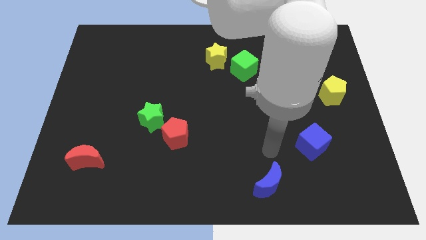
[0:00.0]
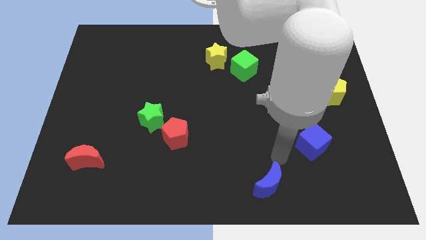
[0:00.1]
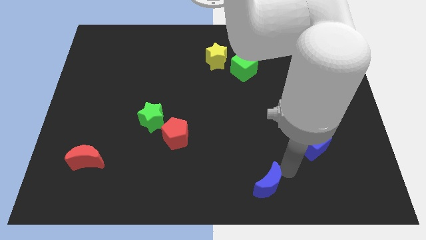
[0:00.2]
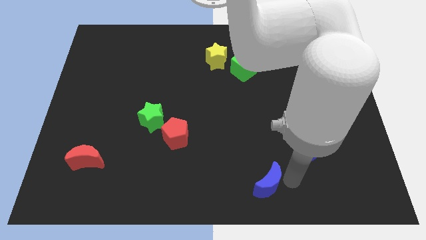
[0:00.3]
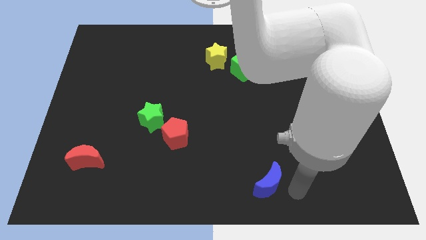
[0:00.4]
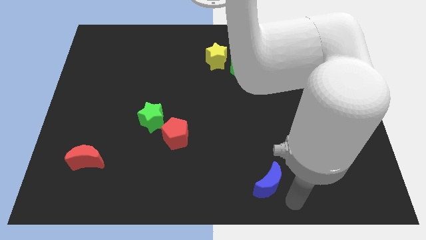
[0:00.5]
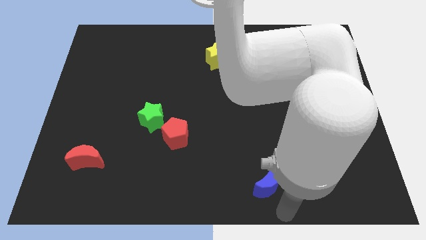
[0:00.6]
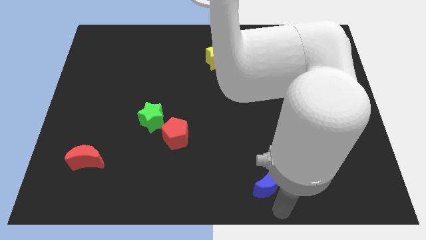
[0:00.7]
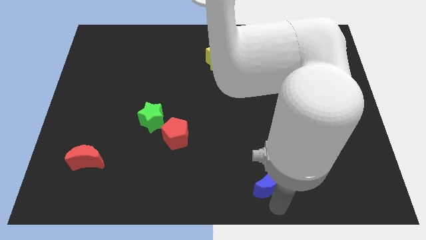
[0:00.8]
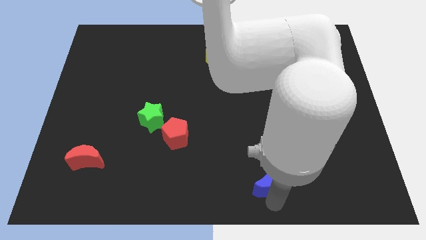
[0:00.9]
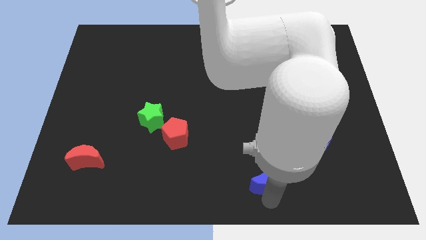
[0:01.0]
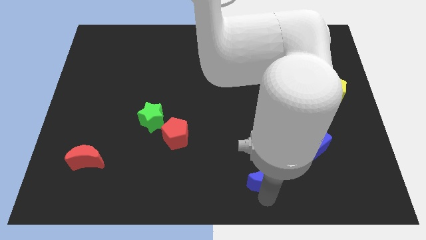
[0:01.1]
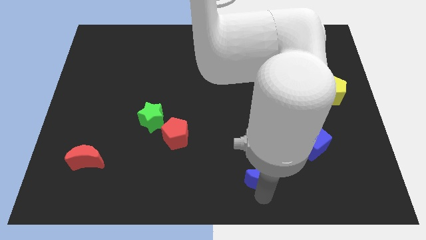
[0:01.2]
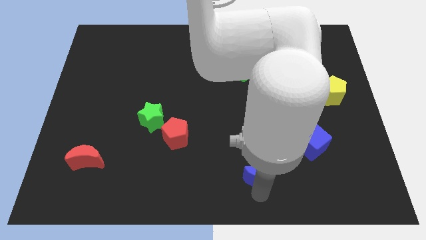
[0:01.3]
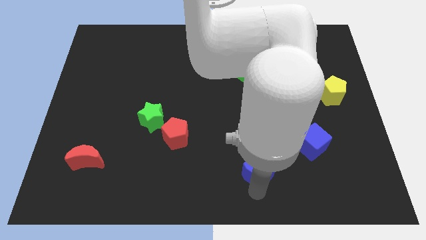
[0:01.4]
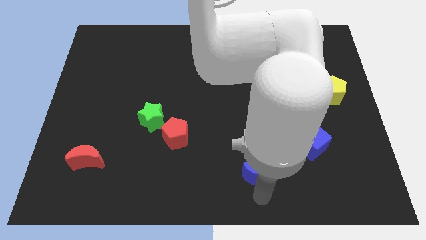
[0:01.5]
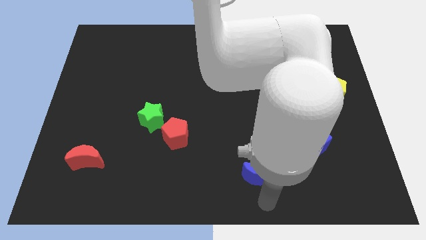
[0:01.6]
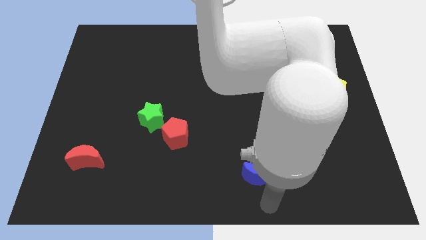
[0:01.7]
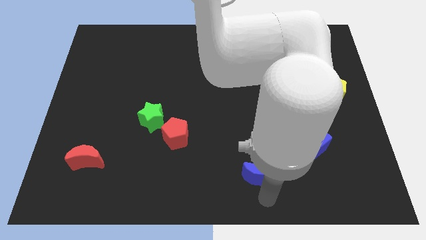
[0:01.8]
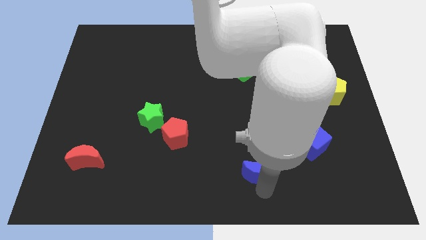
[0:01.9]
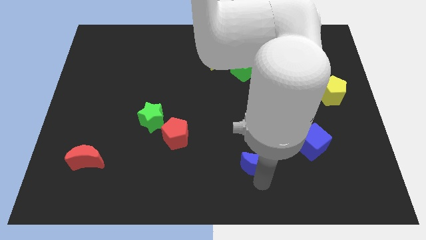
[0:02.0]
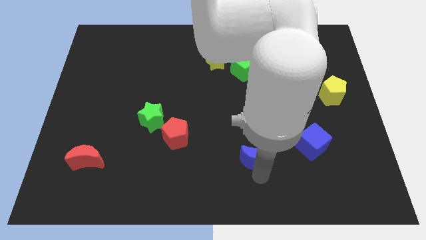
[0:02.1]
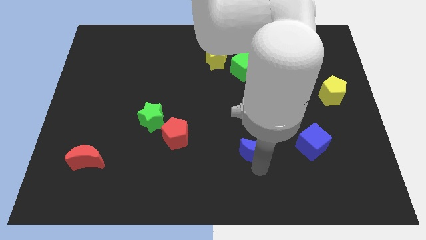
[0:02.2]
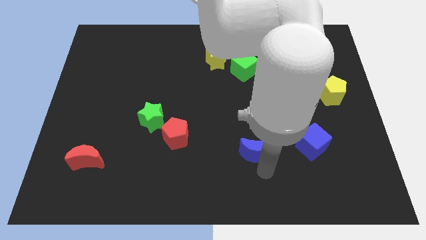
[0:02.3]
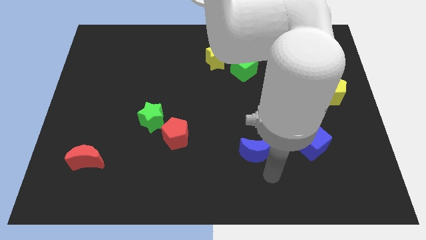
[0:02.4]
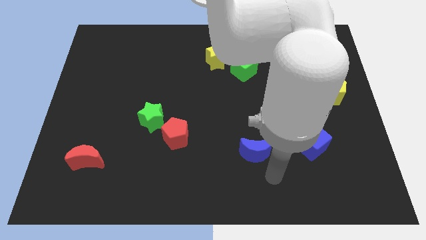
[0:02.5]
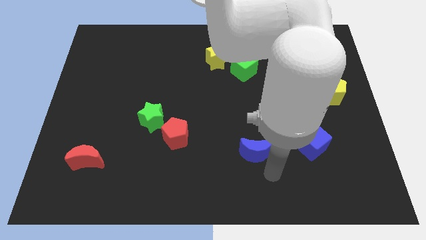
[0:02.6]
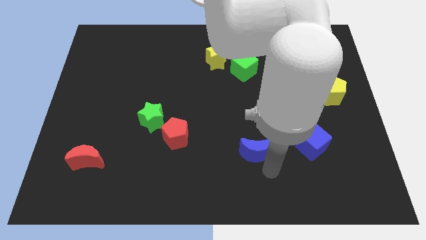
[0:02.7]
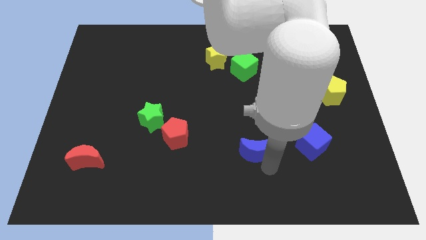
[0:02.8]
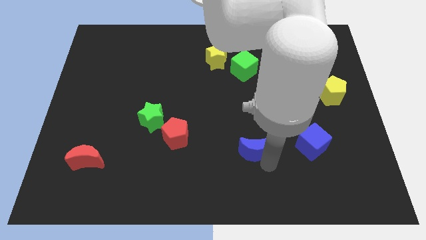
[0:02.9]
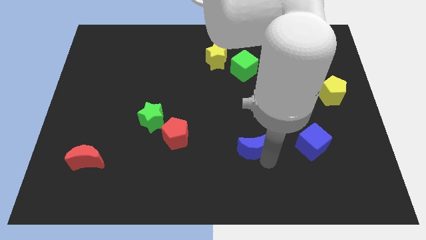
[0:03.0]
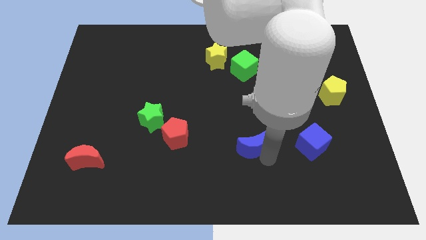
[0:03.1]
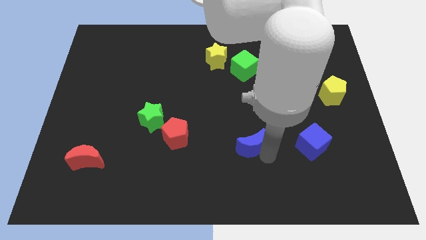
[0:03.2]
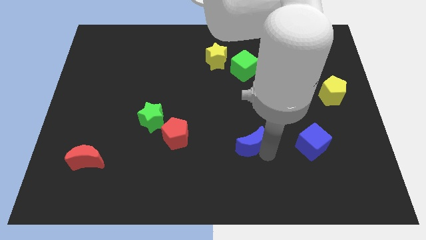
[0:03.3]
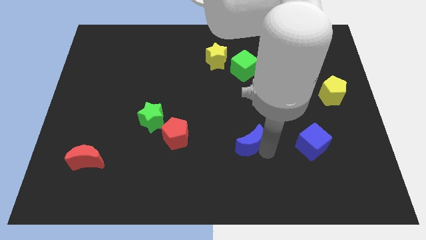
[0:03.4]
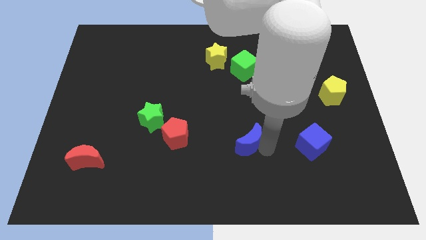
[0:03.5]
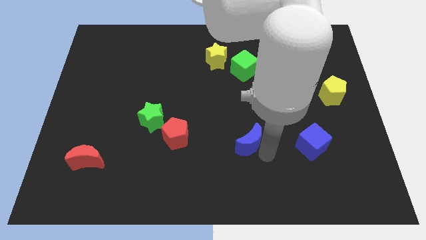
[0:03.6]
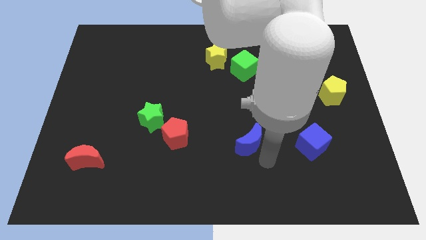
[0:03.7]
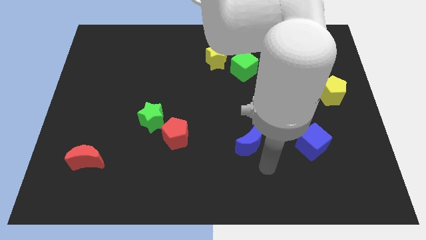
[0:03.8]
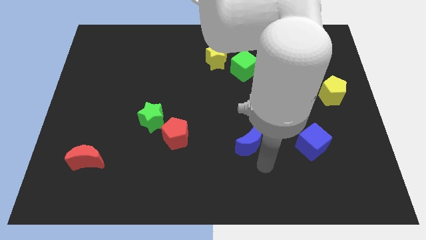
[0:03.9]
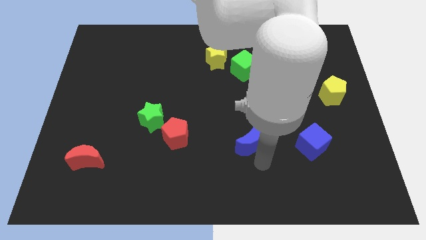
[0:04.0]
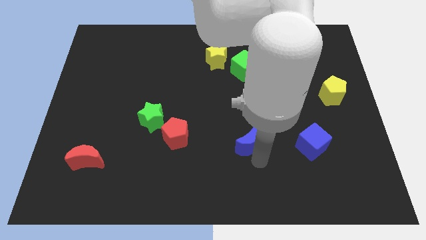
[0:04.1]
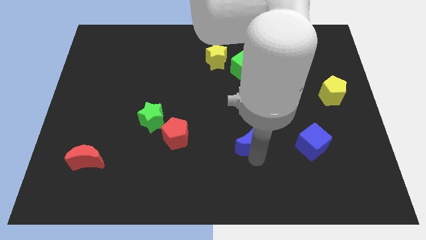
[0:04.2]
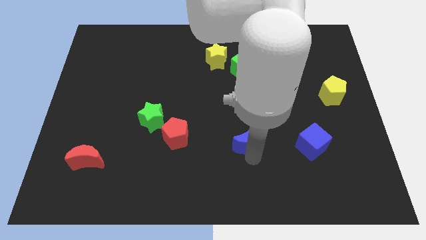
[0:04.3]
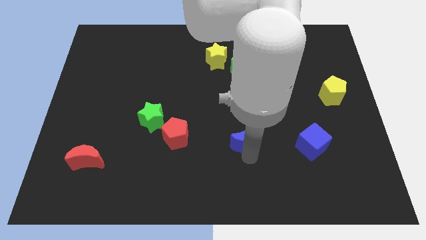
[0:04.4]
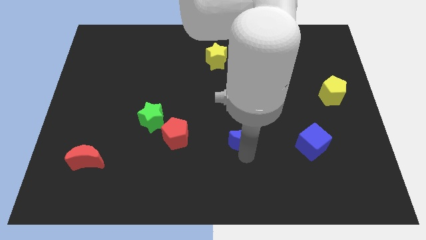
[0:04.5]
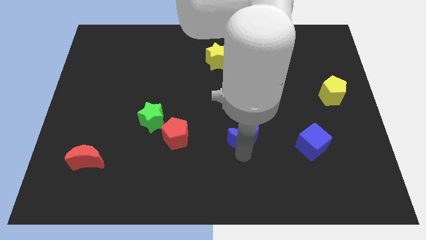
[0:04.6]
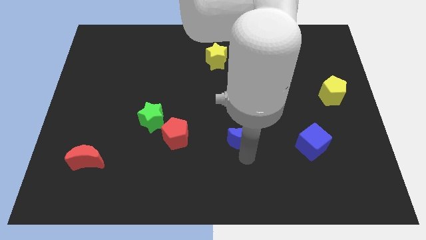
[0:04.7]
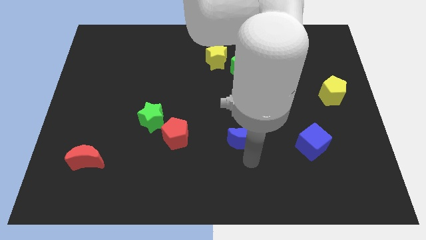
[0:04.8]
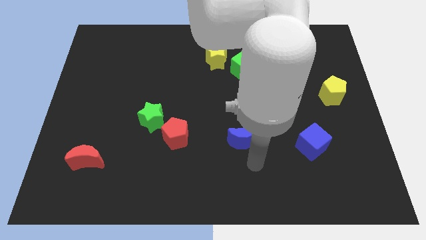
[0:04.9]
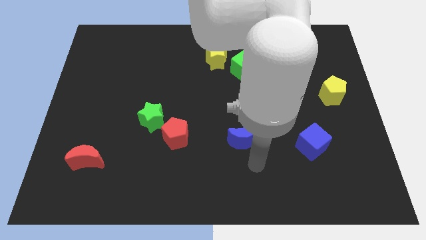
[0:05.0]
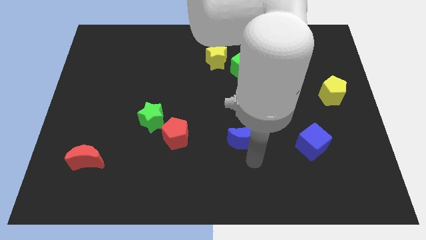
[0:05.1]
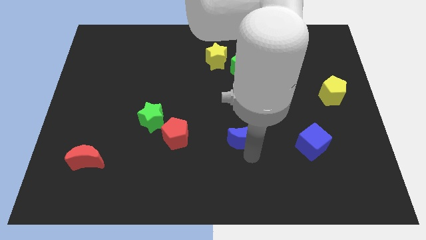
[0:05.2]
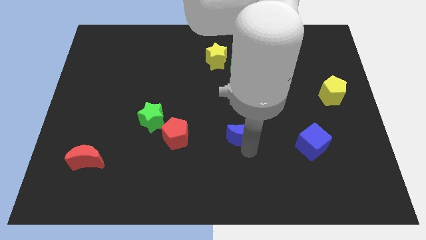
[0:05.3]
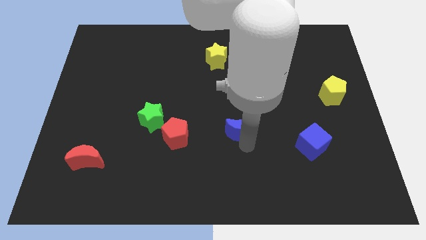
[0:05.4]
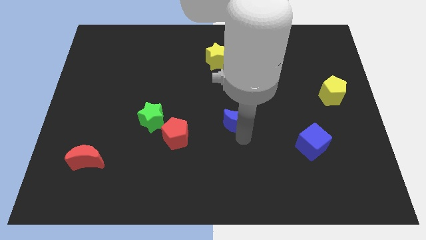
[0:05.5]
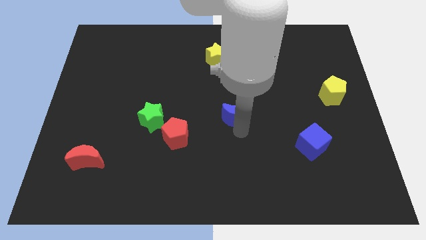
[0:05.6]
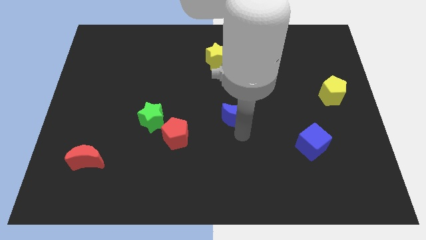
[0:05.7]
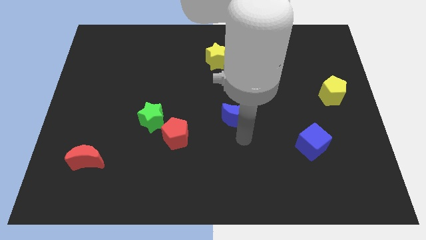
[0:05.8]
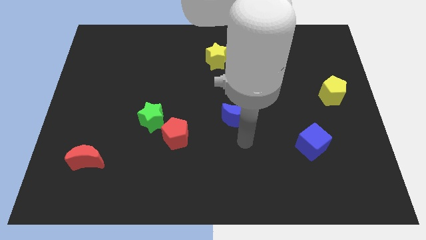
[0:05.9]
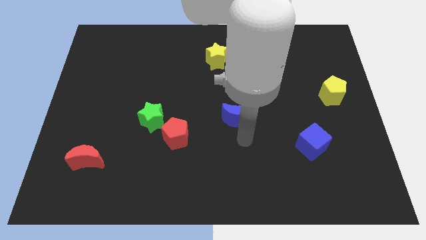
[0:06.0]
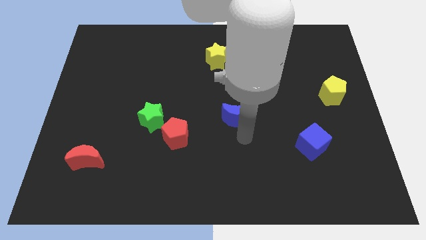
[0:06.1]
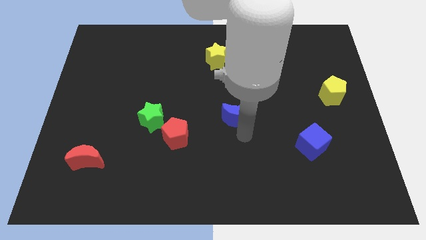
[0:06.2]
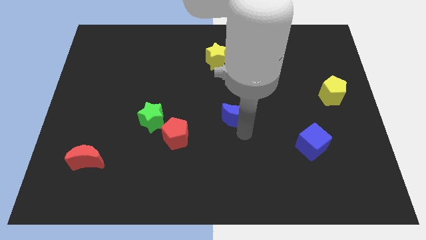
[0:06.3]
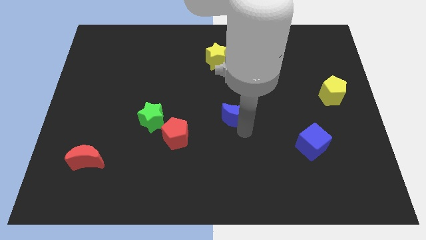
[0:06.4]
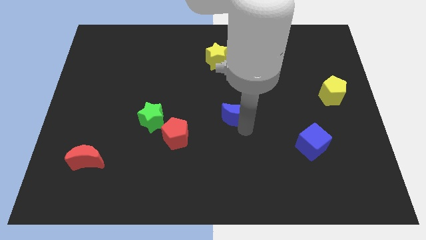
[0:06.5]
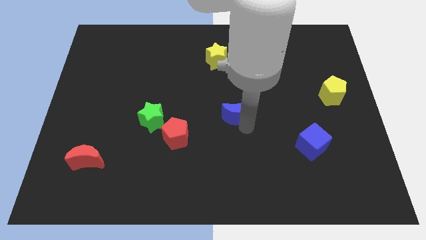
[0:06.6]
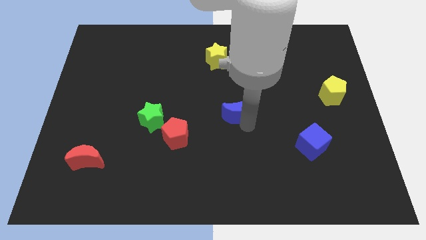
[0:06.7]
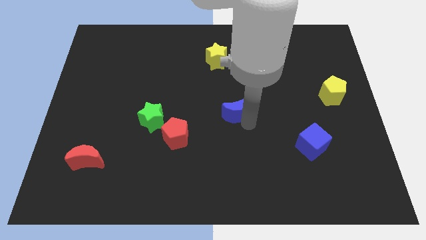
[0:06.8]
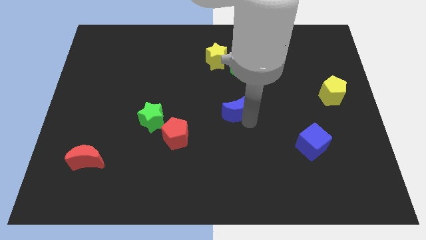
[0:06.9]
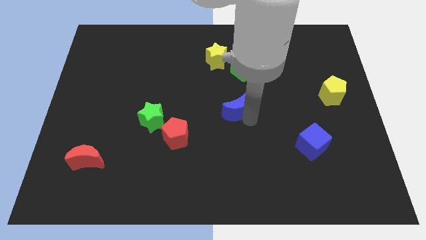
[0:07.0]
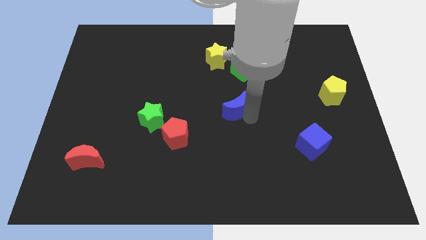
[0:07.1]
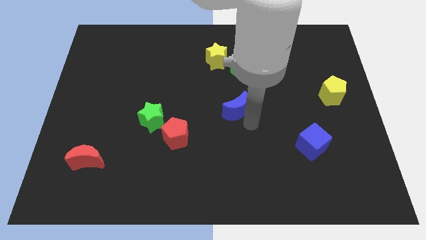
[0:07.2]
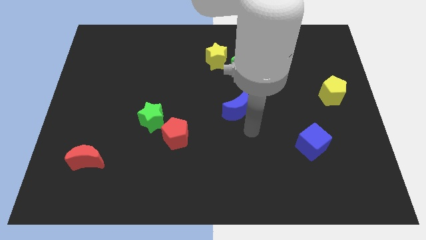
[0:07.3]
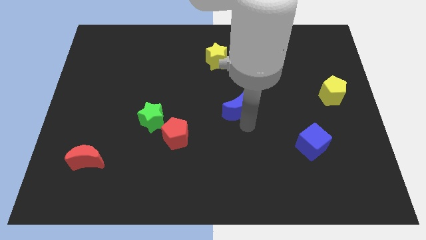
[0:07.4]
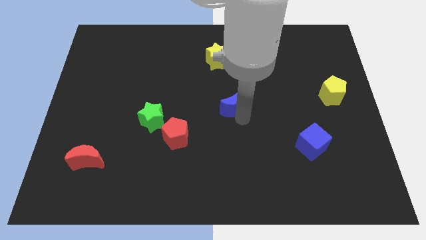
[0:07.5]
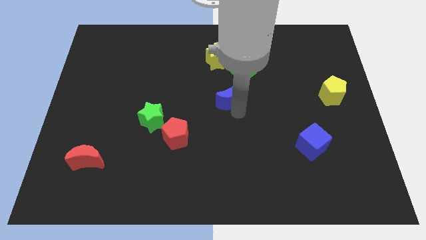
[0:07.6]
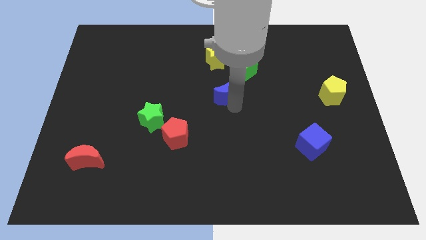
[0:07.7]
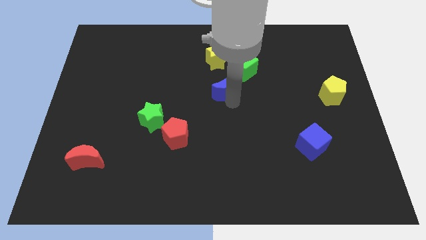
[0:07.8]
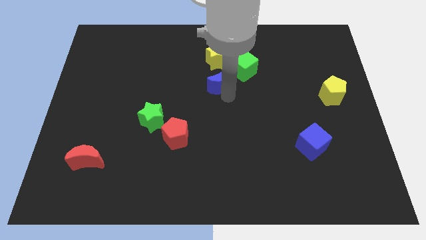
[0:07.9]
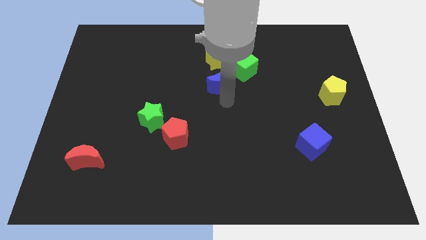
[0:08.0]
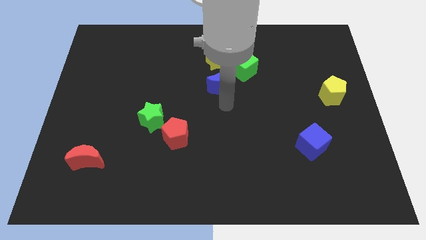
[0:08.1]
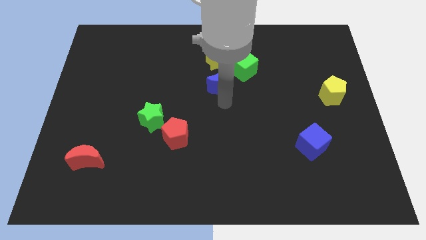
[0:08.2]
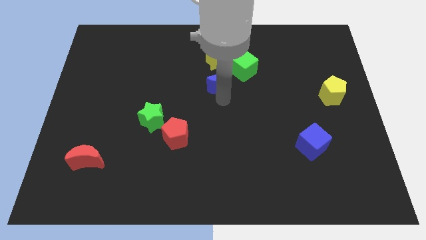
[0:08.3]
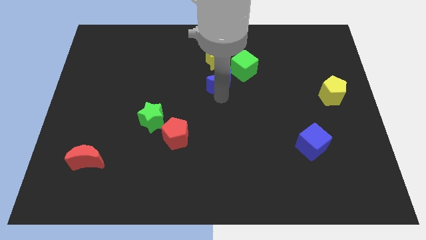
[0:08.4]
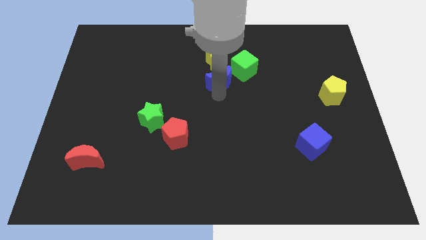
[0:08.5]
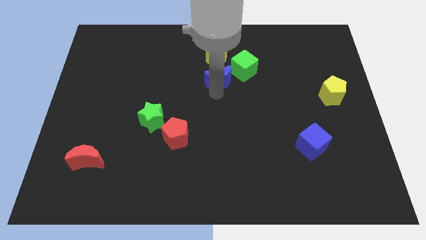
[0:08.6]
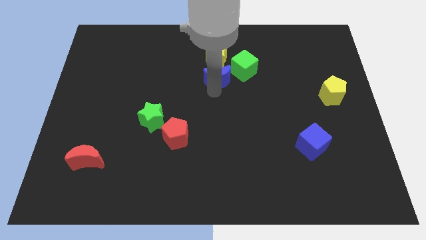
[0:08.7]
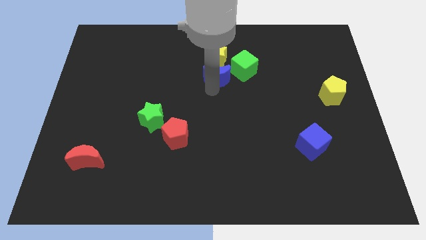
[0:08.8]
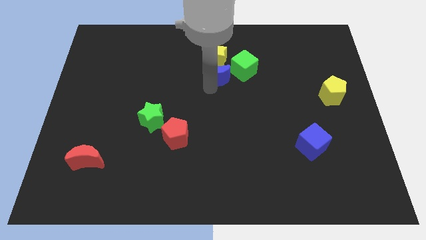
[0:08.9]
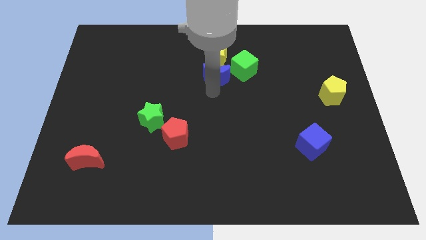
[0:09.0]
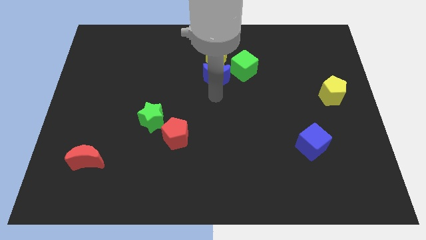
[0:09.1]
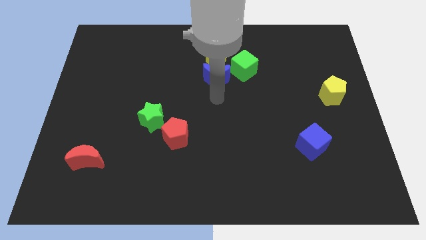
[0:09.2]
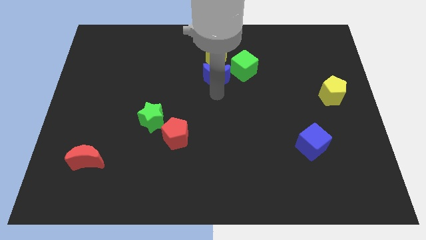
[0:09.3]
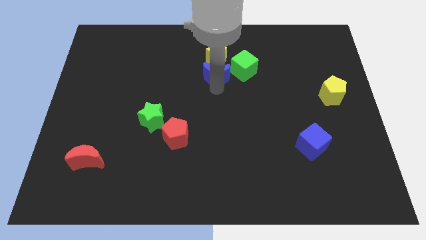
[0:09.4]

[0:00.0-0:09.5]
push the blue moon to the yellow star
